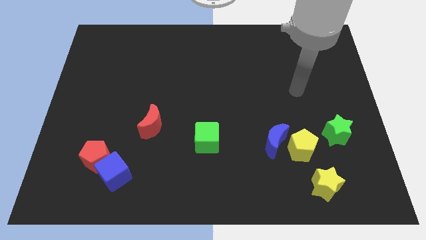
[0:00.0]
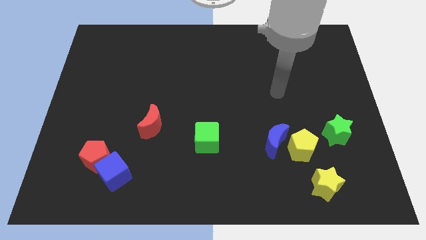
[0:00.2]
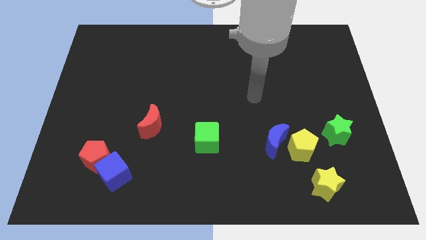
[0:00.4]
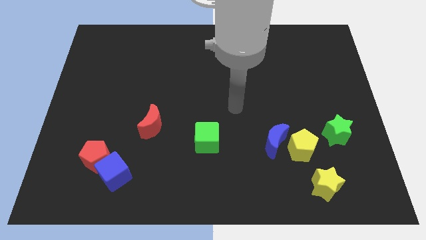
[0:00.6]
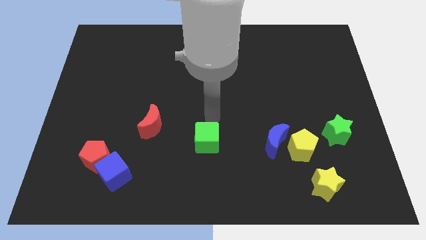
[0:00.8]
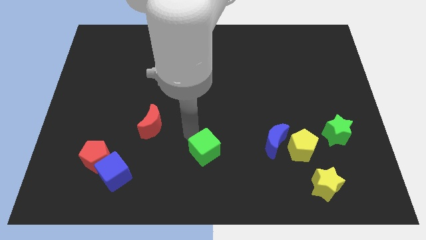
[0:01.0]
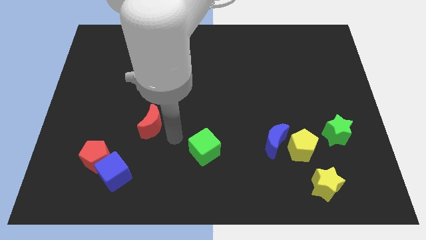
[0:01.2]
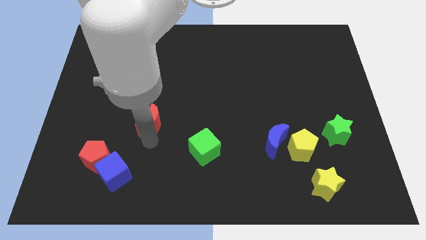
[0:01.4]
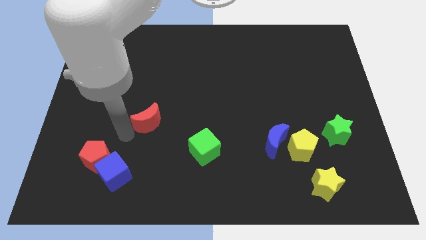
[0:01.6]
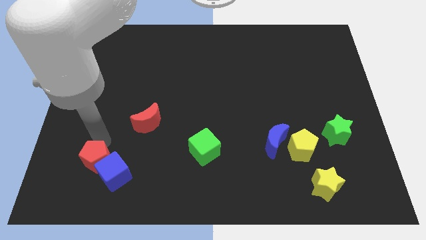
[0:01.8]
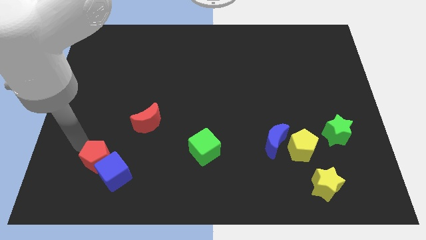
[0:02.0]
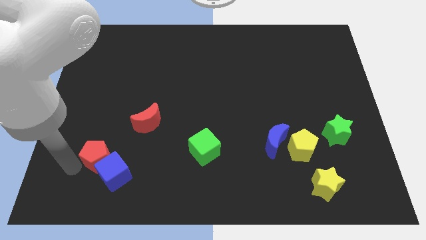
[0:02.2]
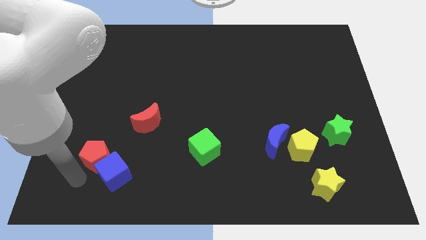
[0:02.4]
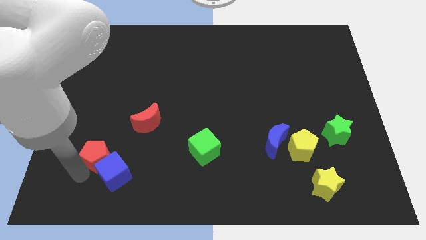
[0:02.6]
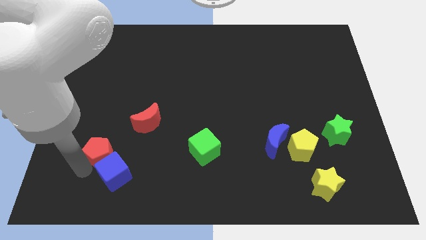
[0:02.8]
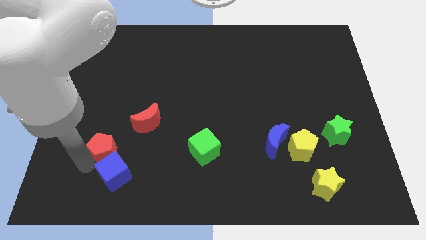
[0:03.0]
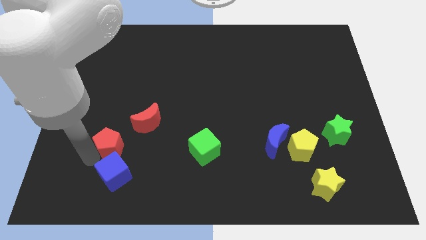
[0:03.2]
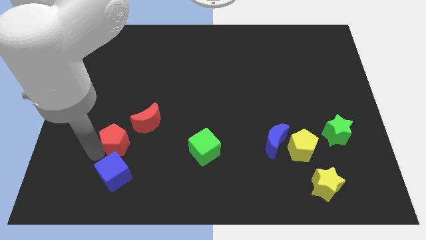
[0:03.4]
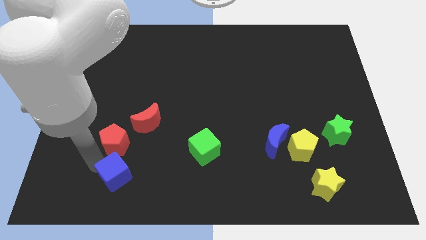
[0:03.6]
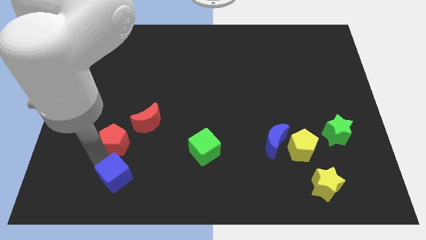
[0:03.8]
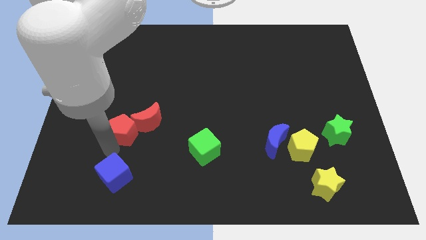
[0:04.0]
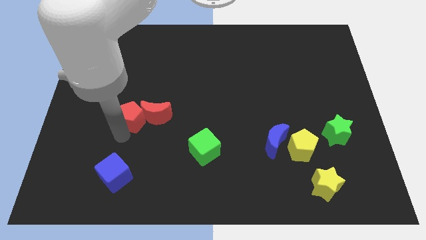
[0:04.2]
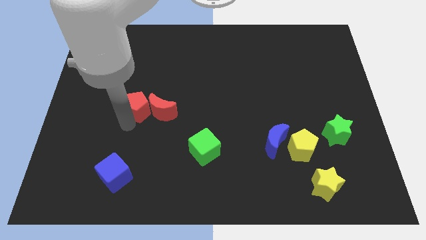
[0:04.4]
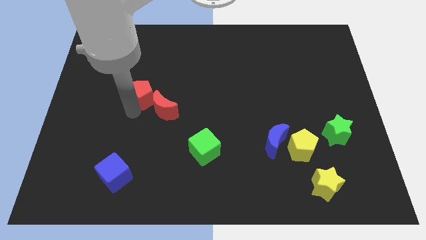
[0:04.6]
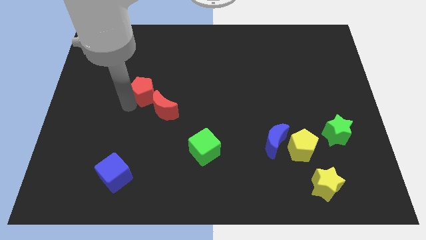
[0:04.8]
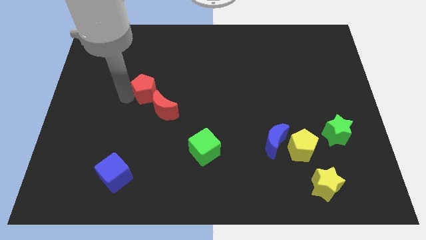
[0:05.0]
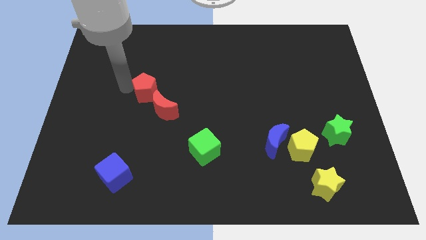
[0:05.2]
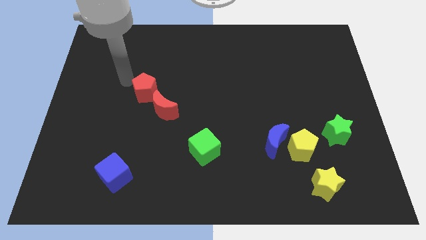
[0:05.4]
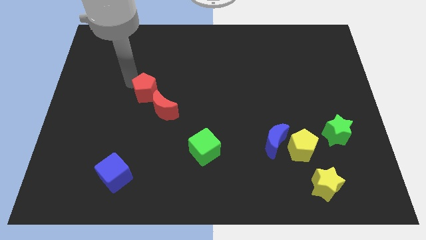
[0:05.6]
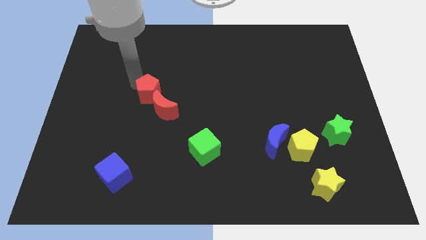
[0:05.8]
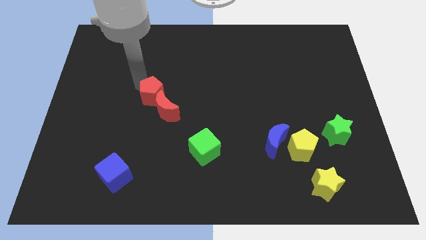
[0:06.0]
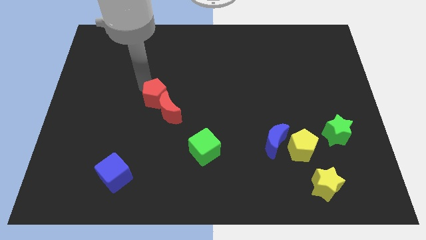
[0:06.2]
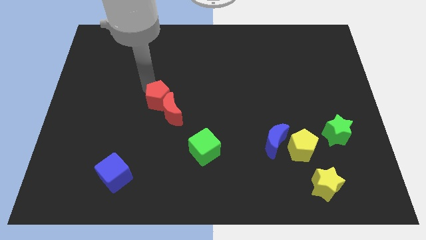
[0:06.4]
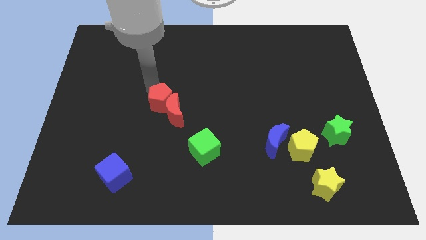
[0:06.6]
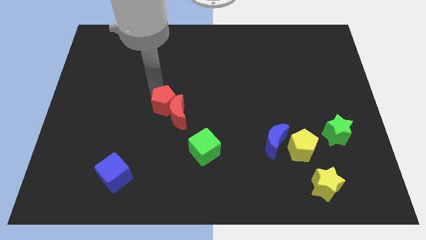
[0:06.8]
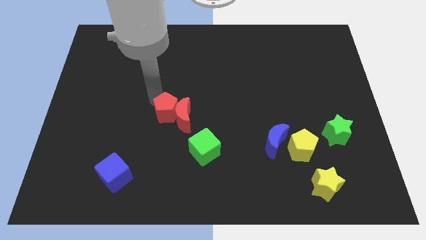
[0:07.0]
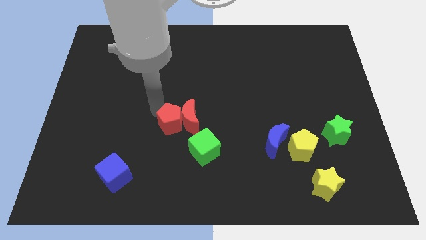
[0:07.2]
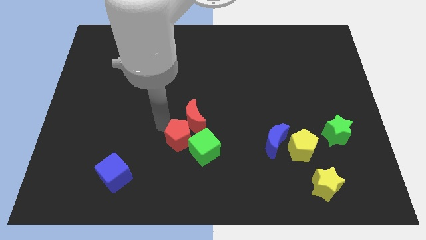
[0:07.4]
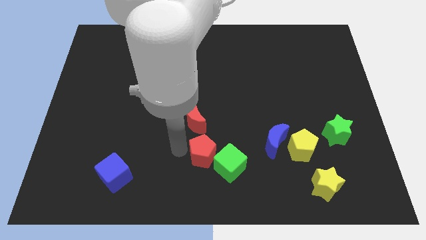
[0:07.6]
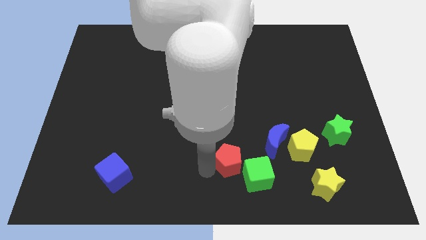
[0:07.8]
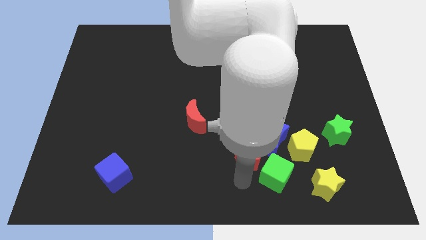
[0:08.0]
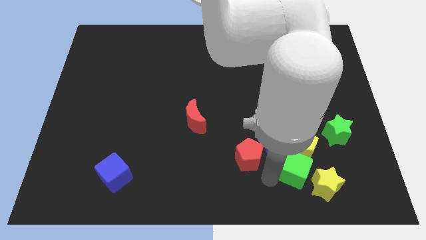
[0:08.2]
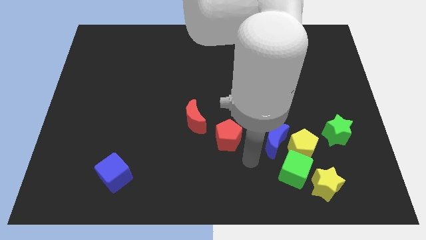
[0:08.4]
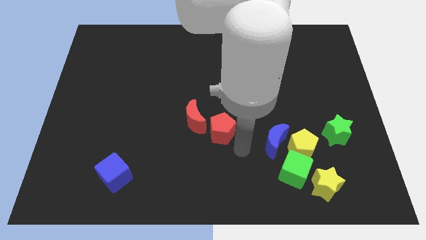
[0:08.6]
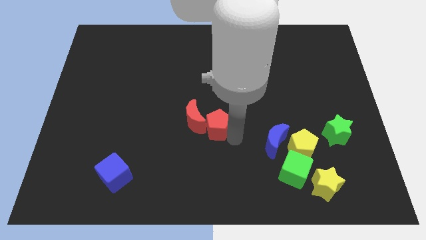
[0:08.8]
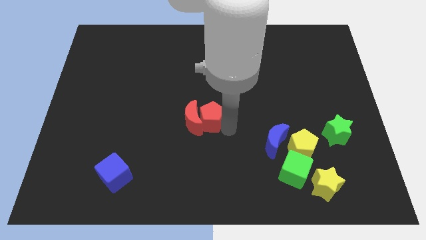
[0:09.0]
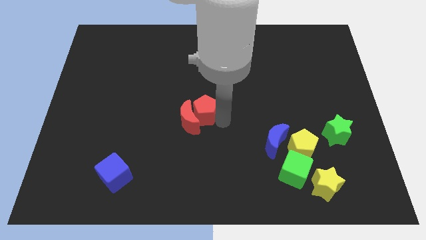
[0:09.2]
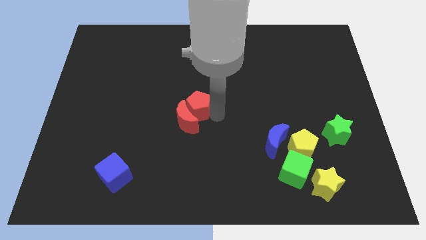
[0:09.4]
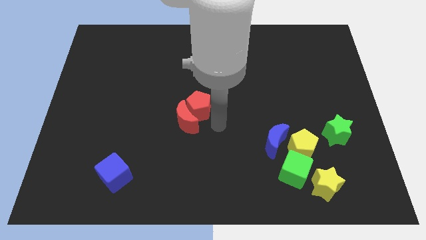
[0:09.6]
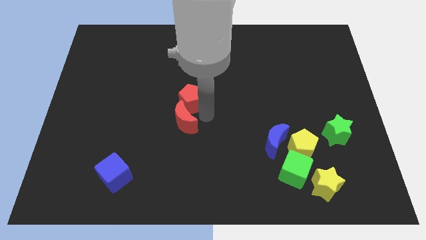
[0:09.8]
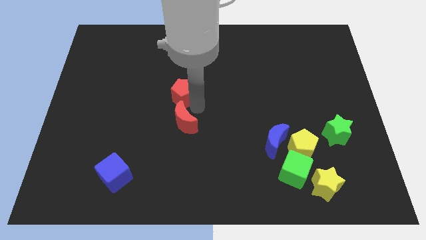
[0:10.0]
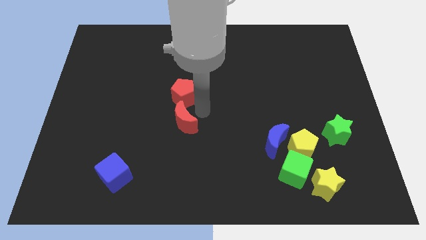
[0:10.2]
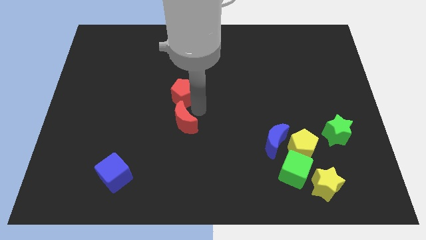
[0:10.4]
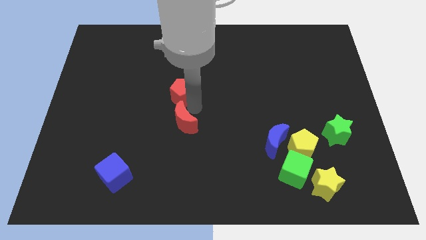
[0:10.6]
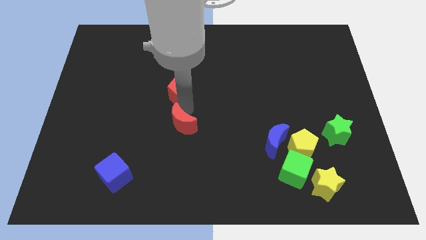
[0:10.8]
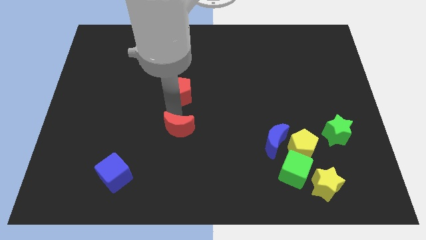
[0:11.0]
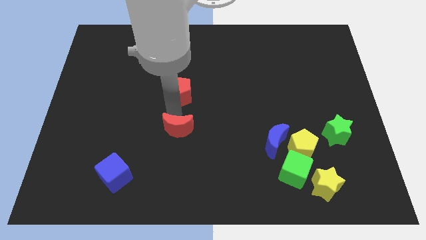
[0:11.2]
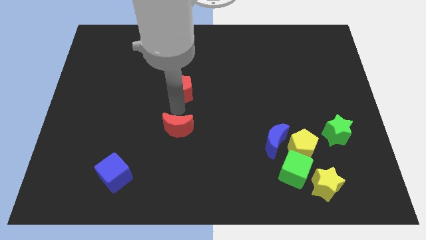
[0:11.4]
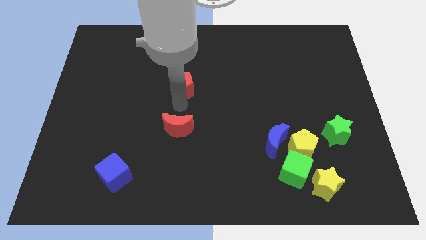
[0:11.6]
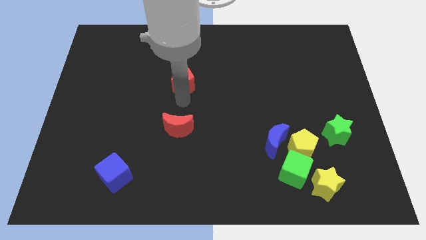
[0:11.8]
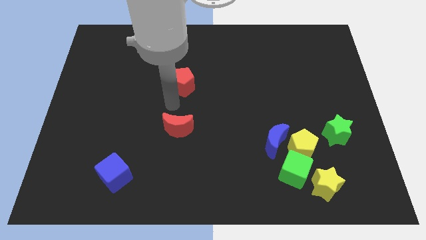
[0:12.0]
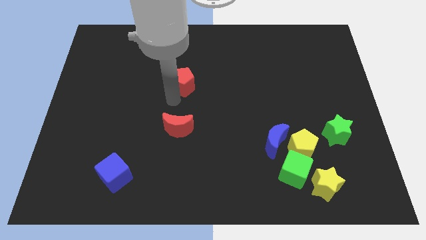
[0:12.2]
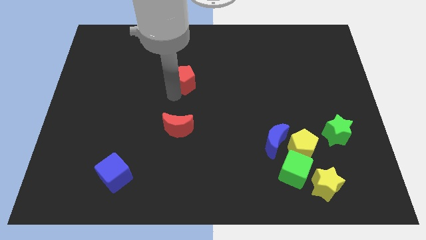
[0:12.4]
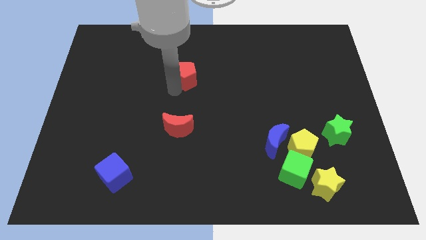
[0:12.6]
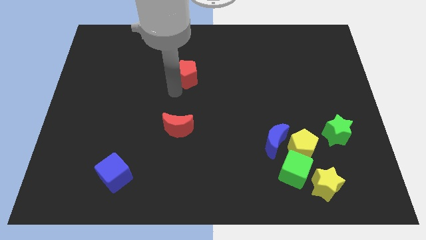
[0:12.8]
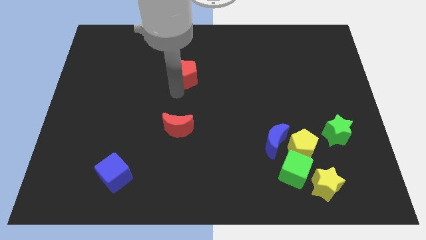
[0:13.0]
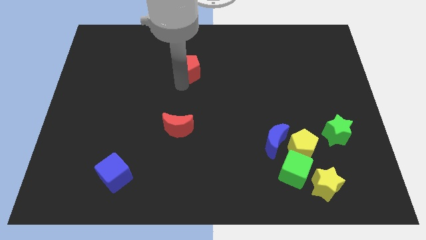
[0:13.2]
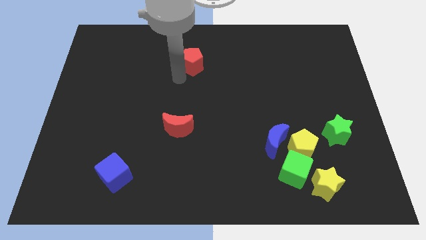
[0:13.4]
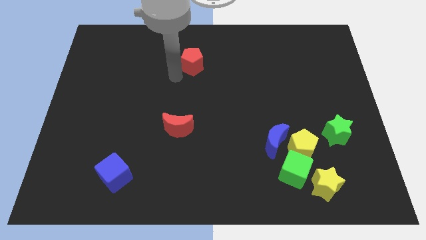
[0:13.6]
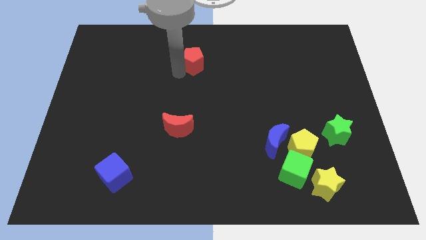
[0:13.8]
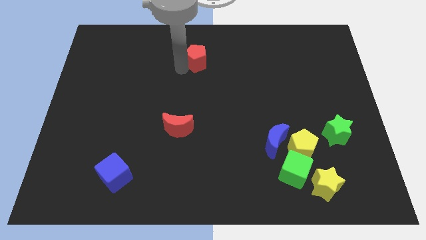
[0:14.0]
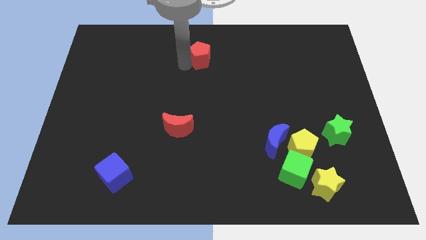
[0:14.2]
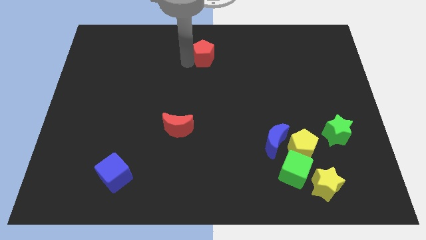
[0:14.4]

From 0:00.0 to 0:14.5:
move the red pentagon to the top
